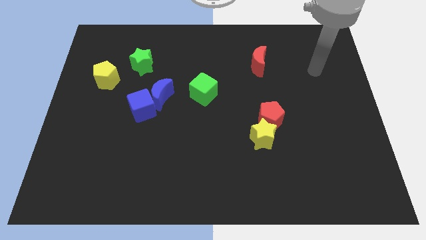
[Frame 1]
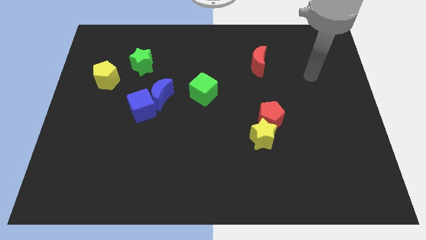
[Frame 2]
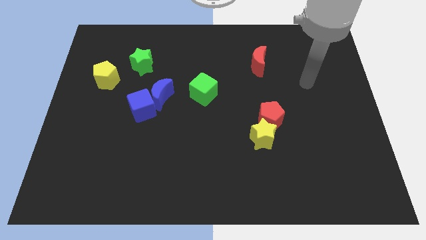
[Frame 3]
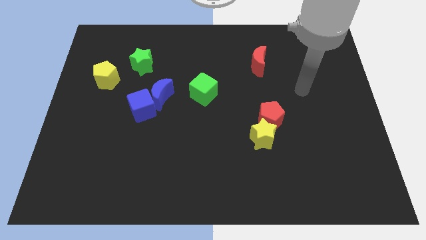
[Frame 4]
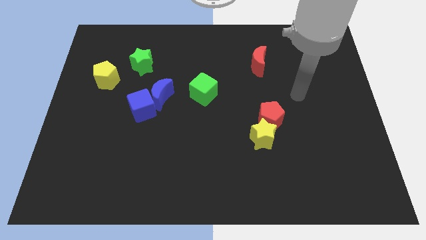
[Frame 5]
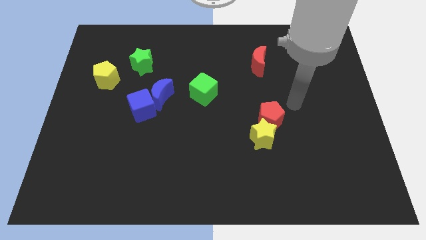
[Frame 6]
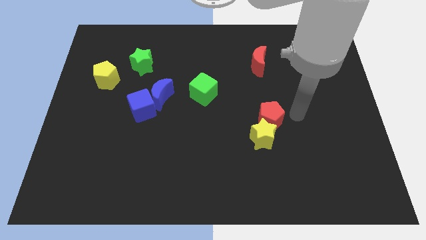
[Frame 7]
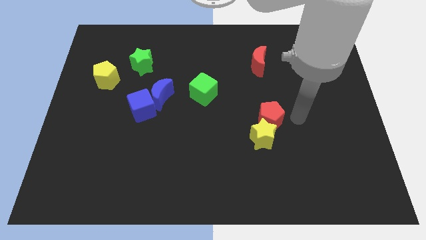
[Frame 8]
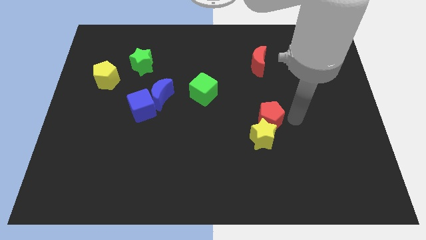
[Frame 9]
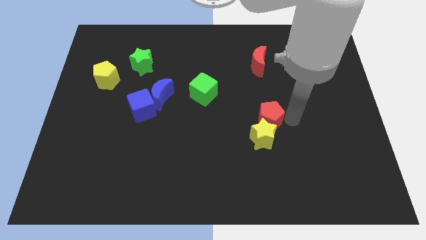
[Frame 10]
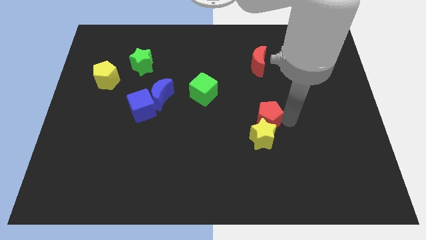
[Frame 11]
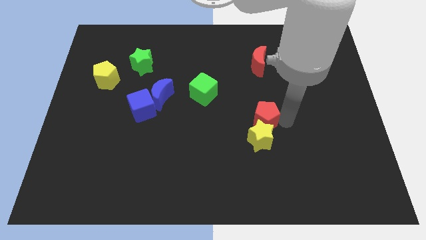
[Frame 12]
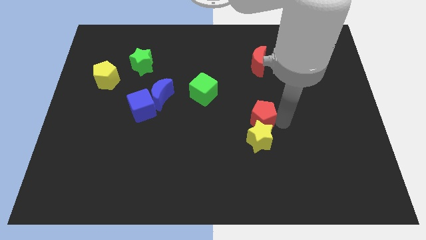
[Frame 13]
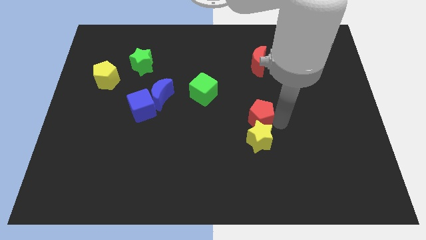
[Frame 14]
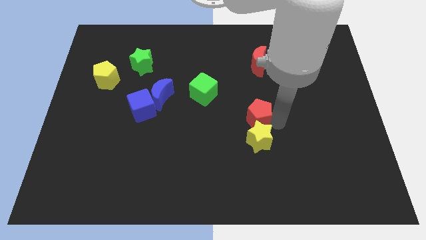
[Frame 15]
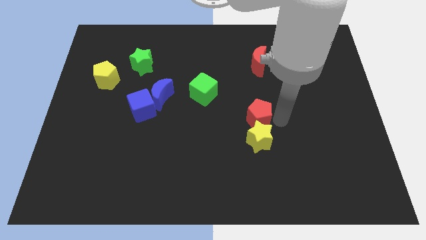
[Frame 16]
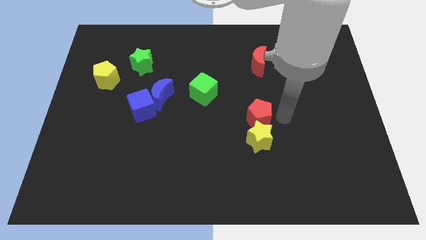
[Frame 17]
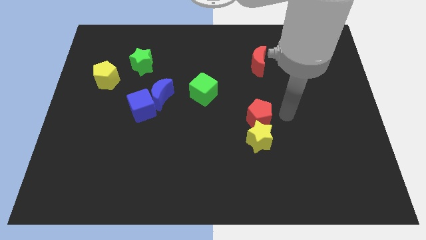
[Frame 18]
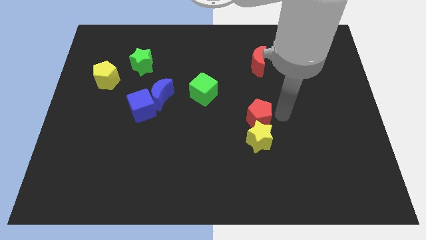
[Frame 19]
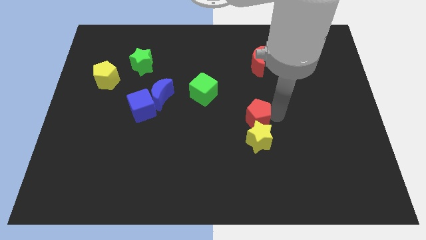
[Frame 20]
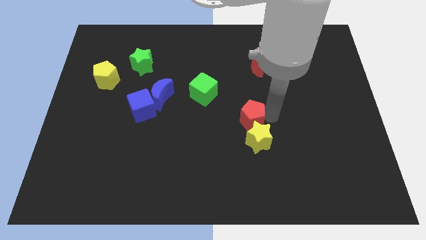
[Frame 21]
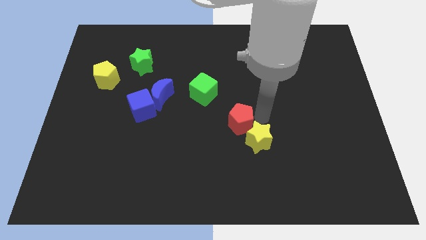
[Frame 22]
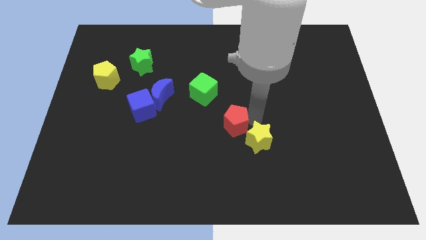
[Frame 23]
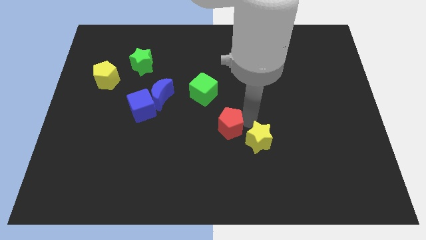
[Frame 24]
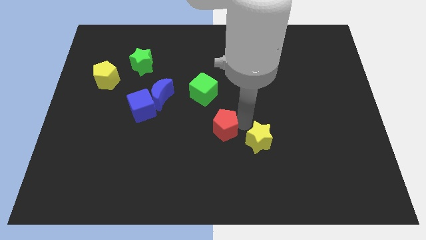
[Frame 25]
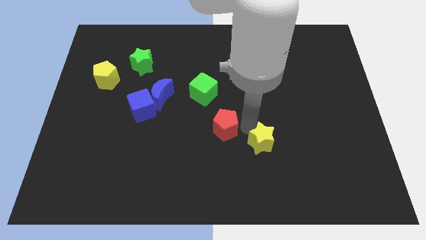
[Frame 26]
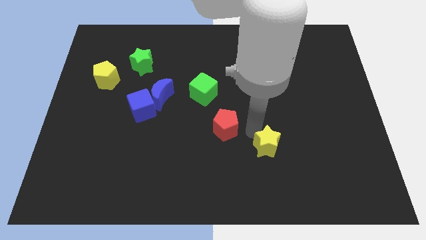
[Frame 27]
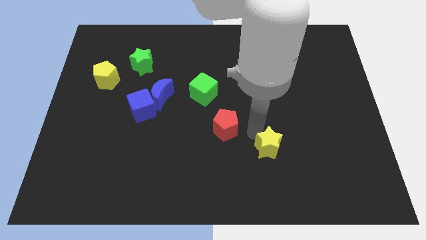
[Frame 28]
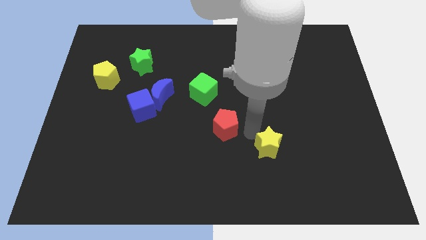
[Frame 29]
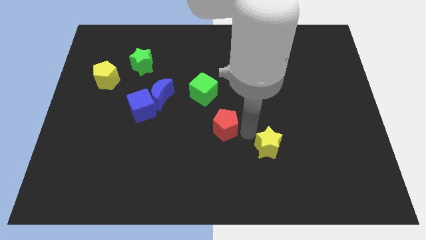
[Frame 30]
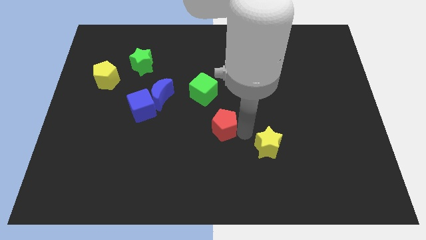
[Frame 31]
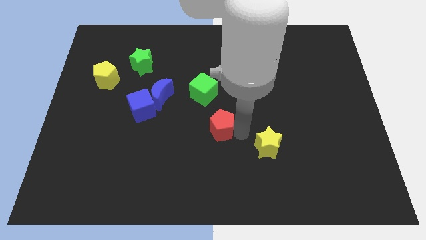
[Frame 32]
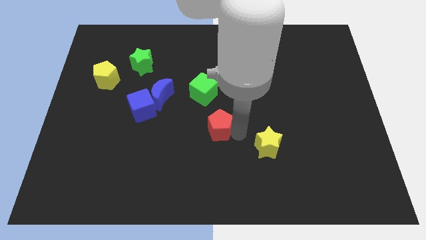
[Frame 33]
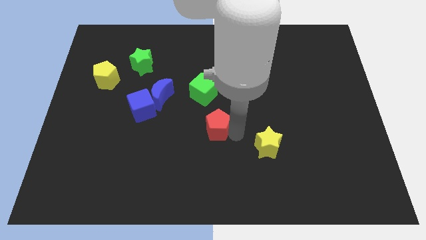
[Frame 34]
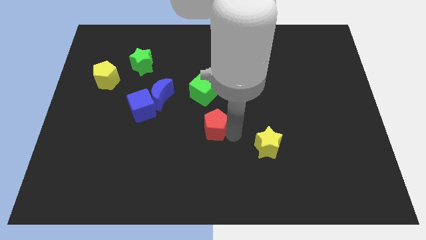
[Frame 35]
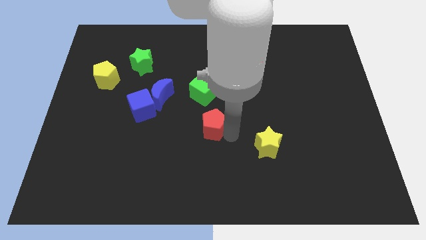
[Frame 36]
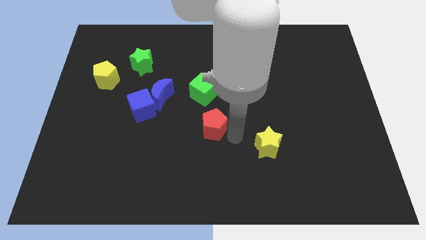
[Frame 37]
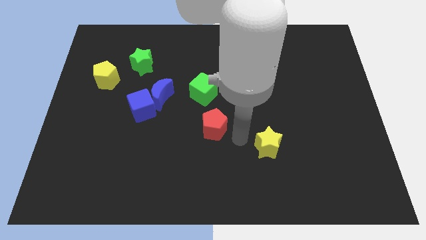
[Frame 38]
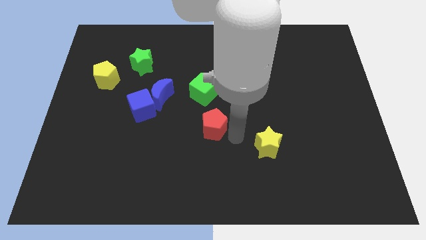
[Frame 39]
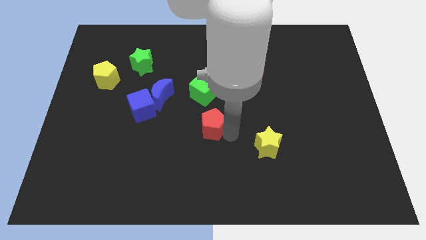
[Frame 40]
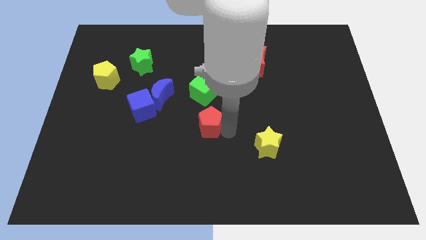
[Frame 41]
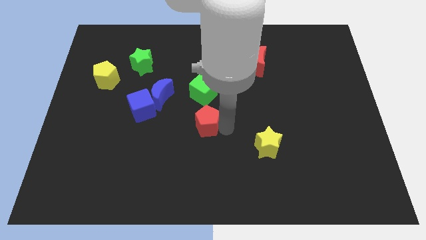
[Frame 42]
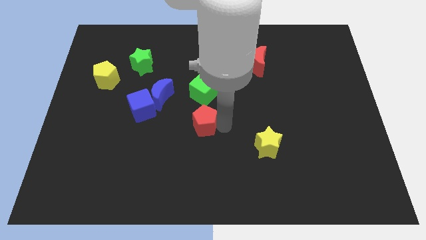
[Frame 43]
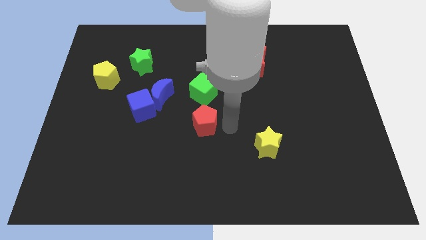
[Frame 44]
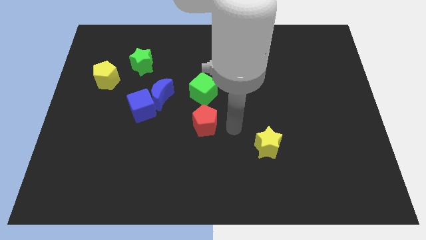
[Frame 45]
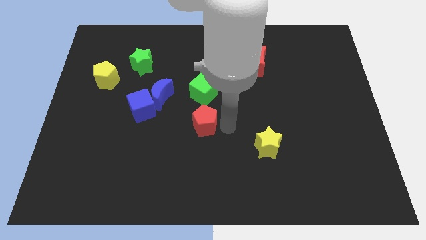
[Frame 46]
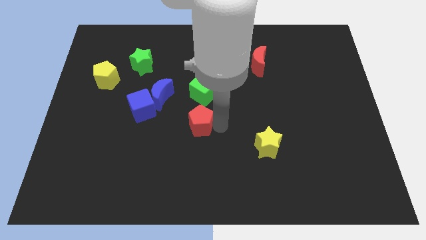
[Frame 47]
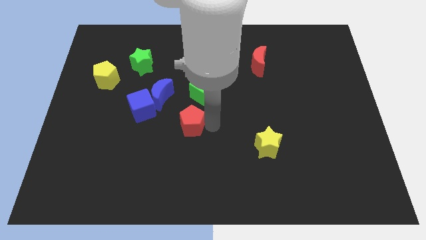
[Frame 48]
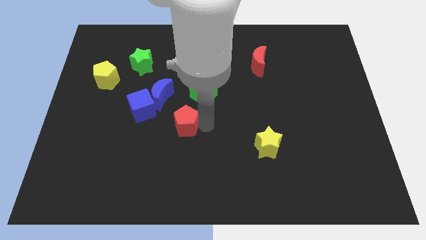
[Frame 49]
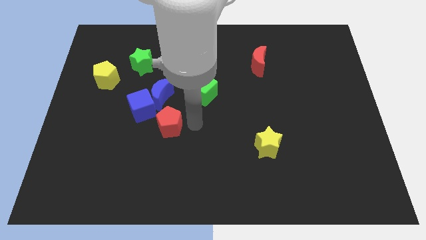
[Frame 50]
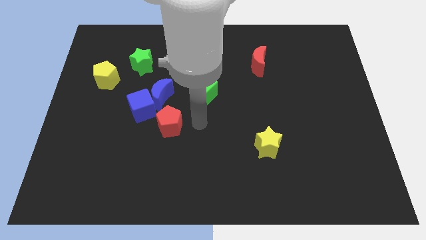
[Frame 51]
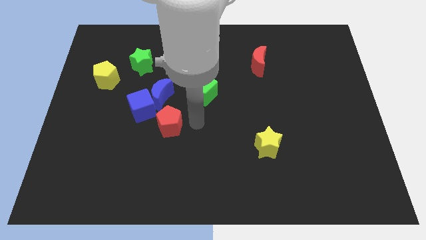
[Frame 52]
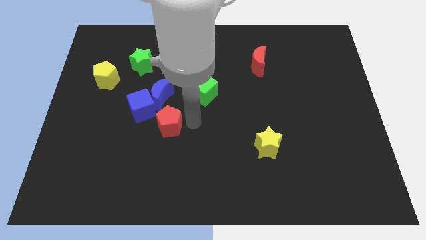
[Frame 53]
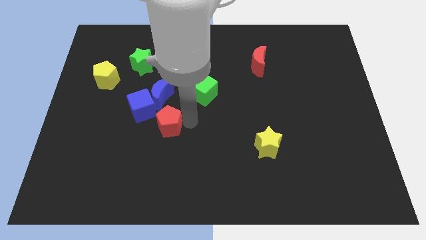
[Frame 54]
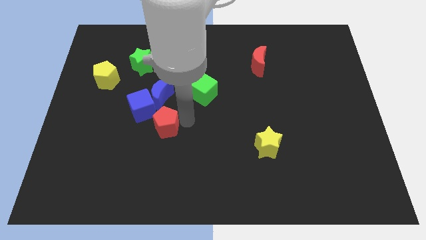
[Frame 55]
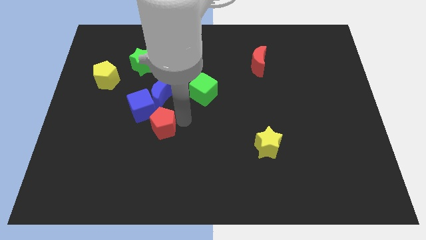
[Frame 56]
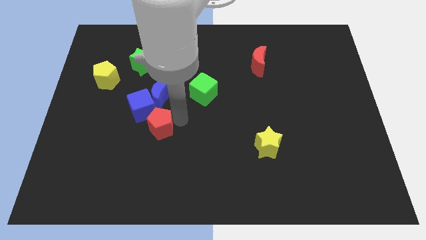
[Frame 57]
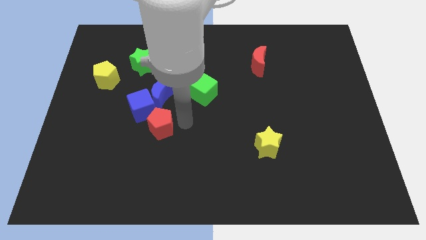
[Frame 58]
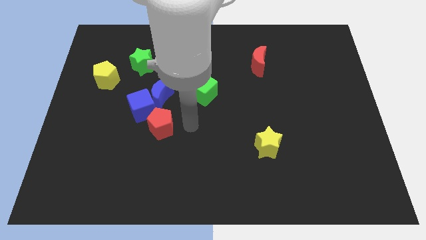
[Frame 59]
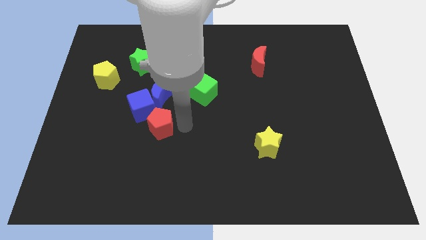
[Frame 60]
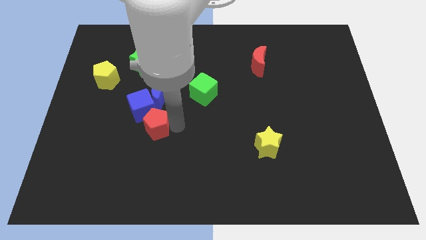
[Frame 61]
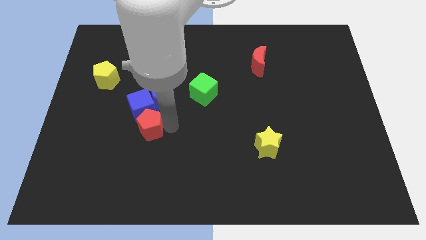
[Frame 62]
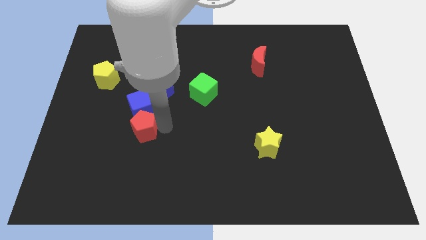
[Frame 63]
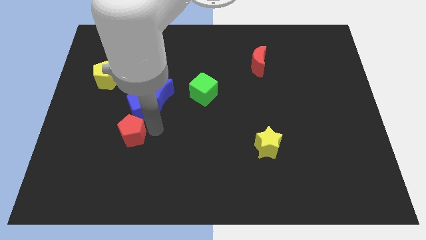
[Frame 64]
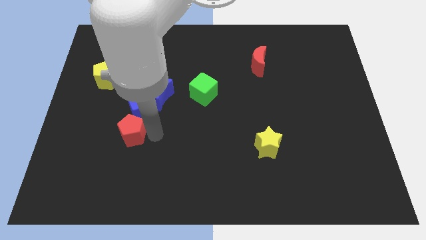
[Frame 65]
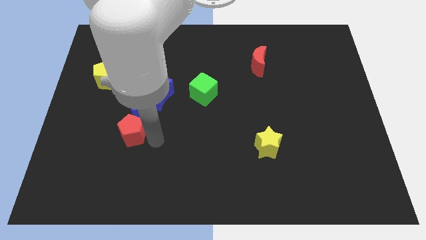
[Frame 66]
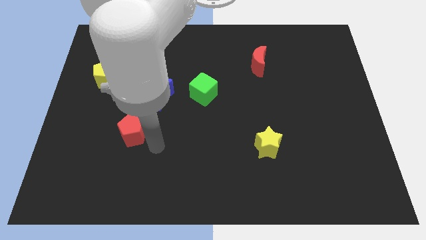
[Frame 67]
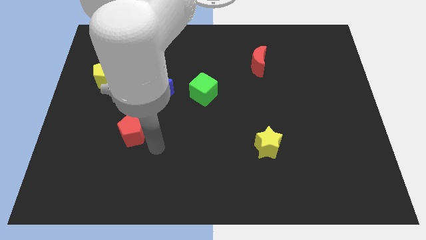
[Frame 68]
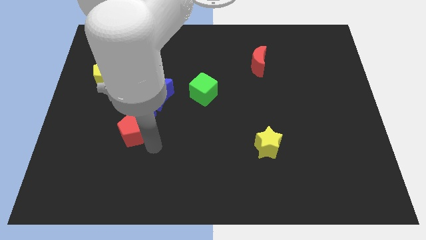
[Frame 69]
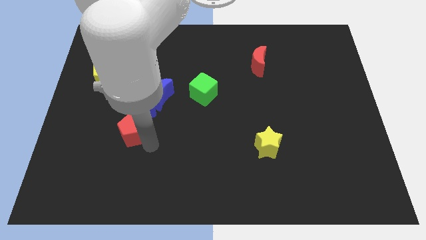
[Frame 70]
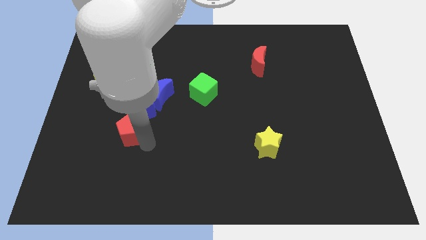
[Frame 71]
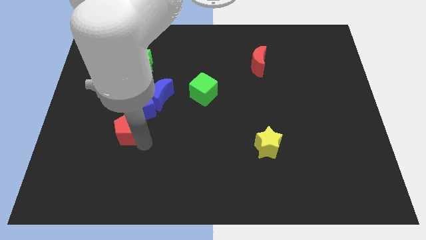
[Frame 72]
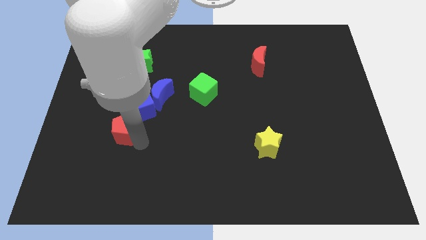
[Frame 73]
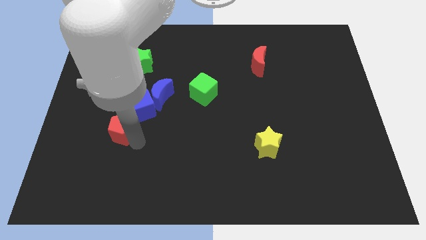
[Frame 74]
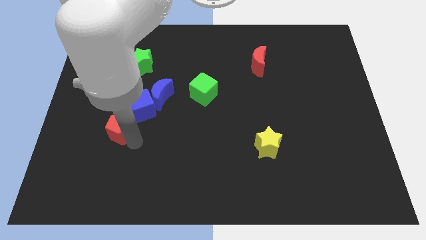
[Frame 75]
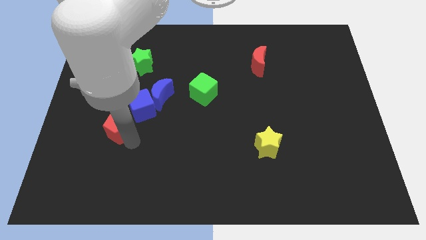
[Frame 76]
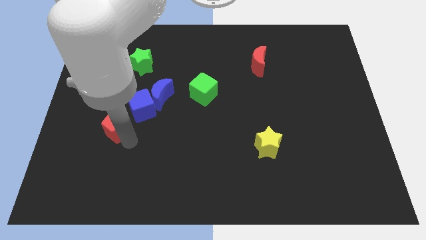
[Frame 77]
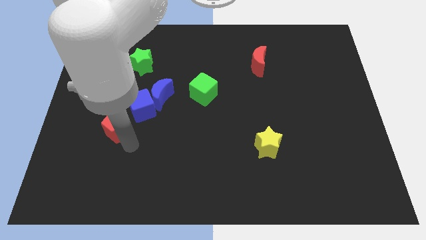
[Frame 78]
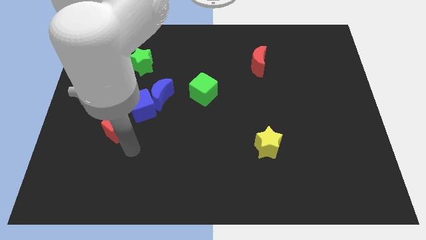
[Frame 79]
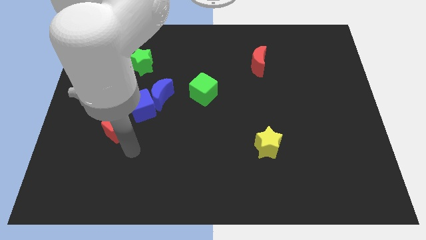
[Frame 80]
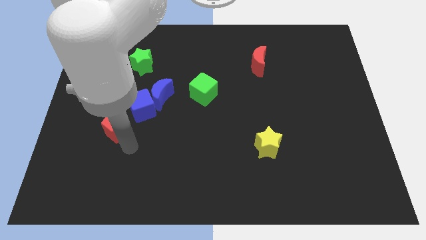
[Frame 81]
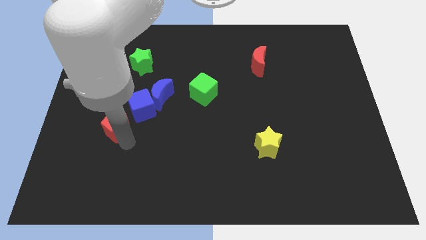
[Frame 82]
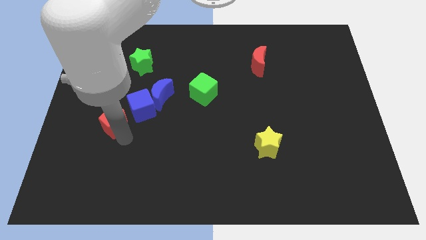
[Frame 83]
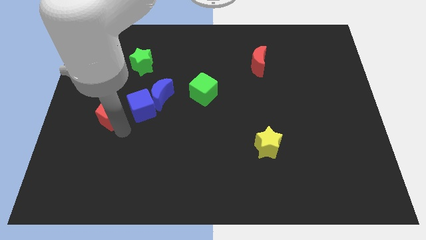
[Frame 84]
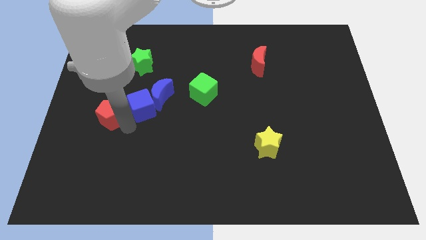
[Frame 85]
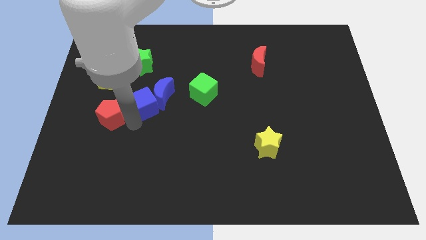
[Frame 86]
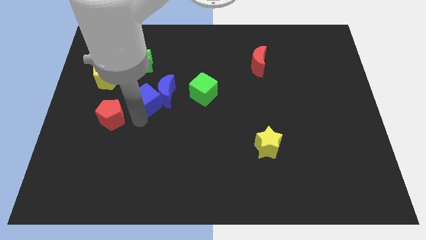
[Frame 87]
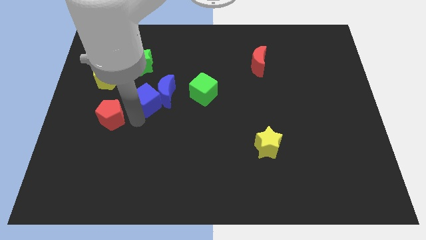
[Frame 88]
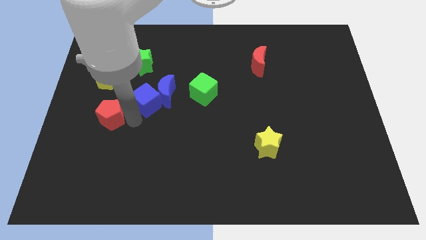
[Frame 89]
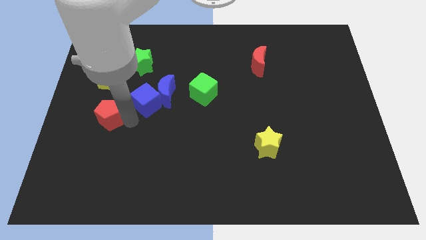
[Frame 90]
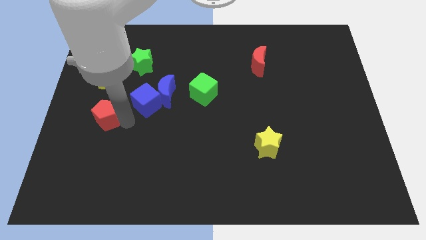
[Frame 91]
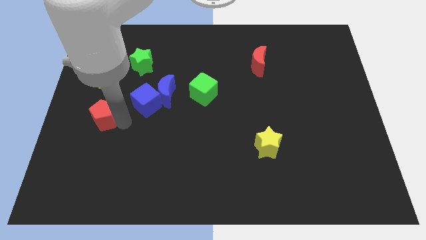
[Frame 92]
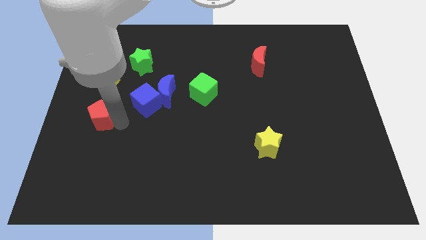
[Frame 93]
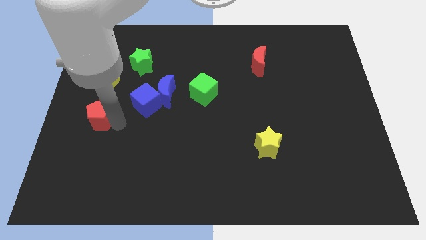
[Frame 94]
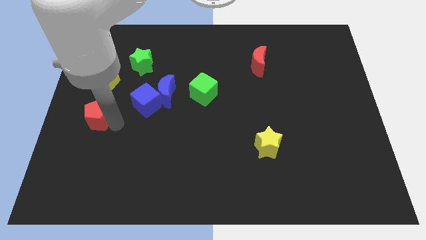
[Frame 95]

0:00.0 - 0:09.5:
push the red pentagon to the left side of the board
